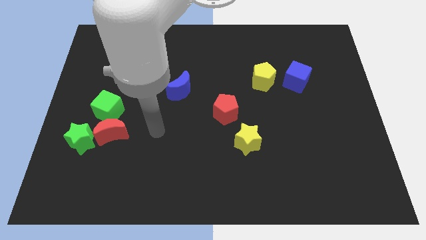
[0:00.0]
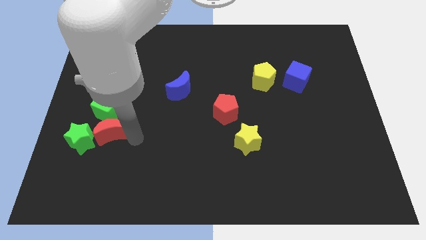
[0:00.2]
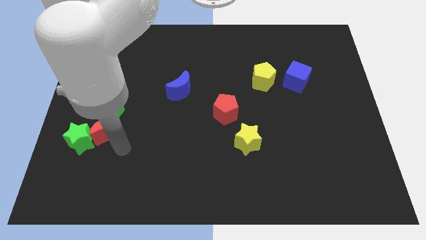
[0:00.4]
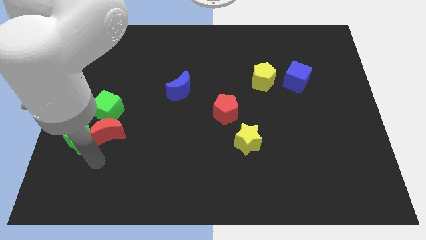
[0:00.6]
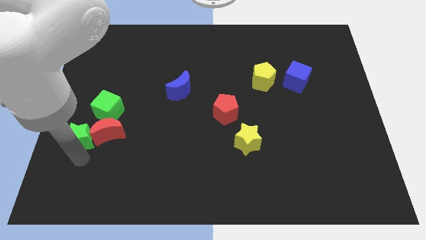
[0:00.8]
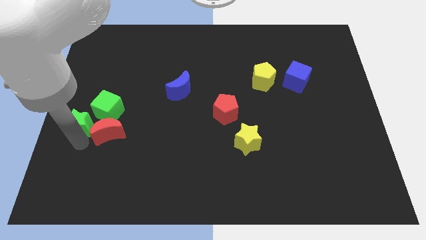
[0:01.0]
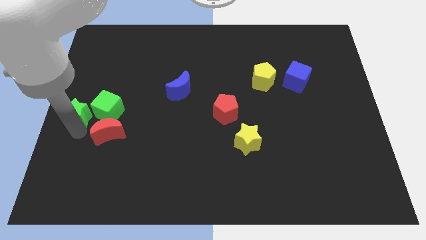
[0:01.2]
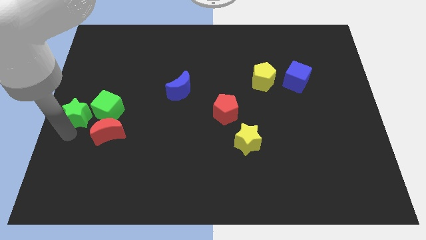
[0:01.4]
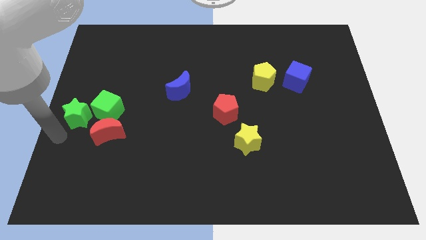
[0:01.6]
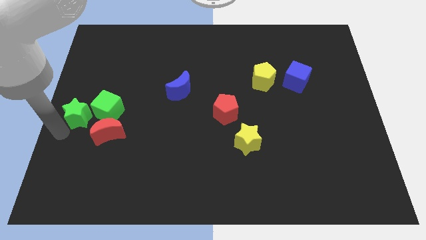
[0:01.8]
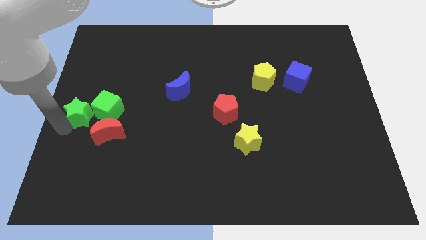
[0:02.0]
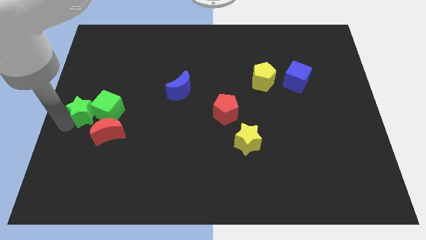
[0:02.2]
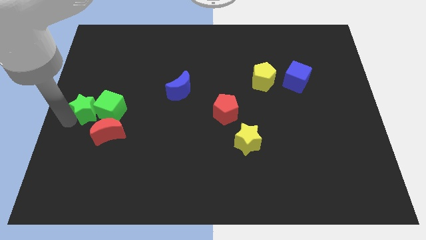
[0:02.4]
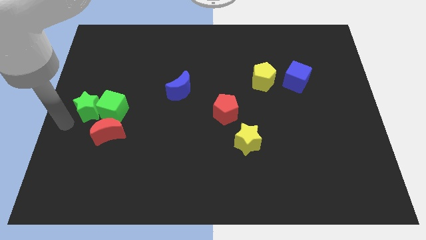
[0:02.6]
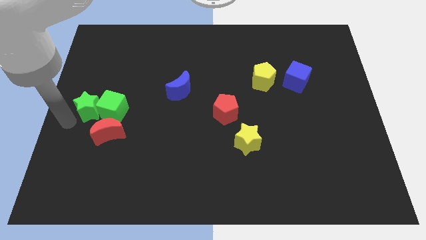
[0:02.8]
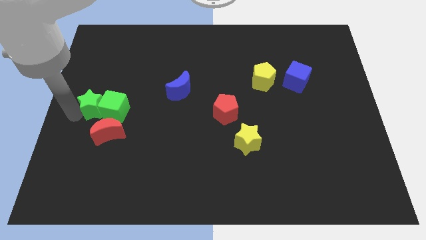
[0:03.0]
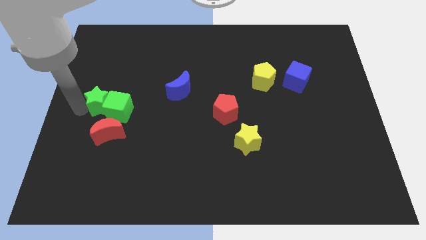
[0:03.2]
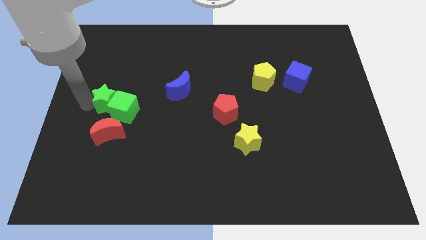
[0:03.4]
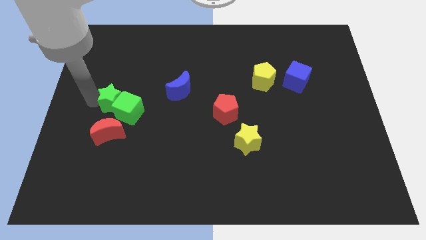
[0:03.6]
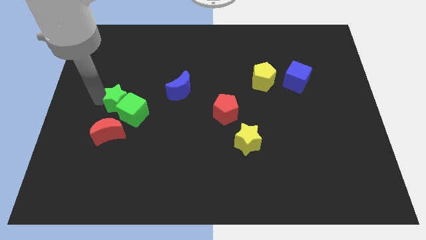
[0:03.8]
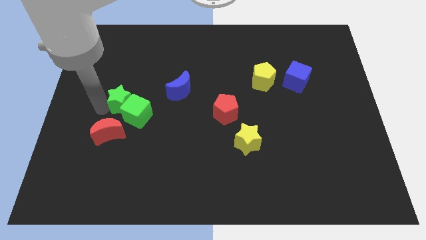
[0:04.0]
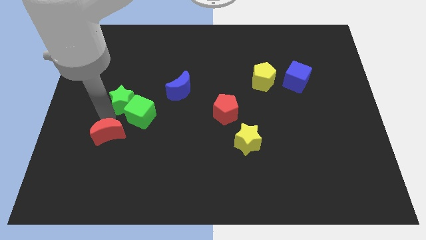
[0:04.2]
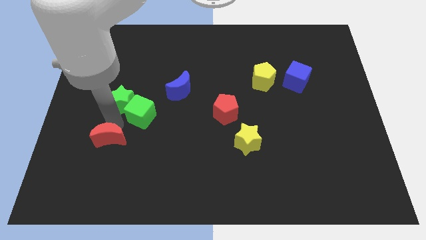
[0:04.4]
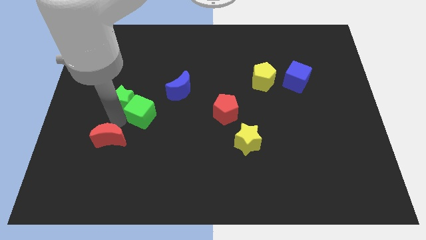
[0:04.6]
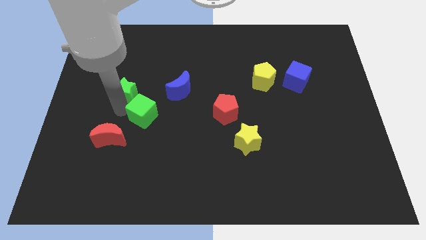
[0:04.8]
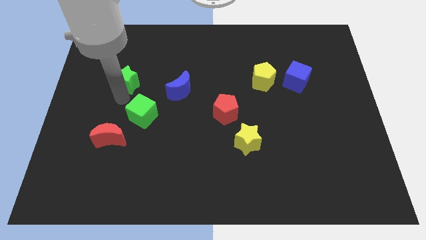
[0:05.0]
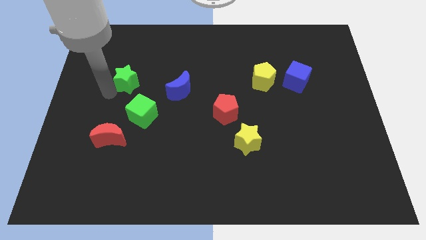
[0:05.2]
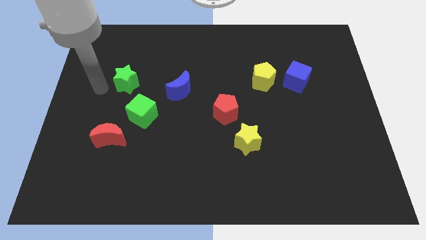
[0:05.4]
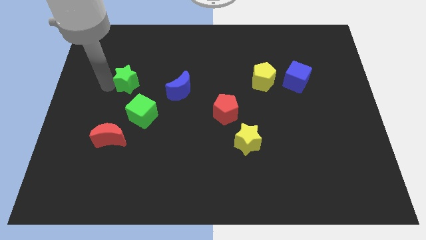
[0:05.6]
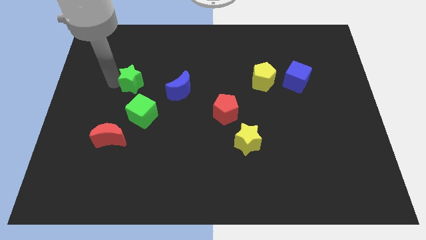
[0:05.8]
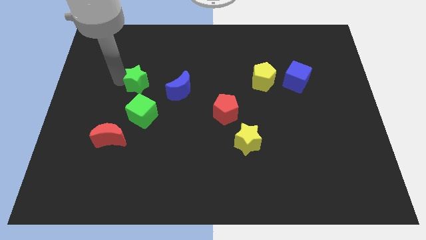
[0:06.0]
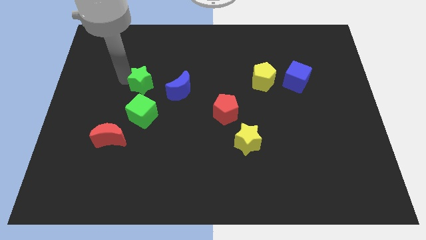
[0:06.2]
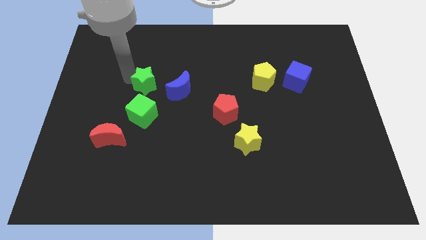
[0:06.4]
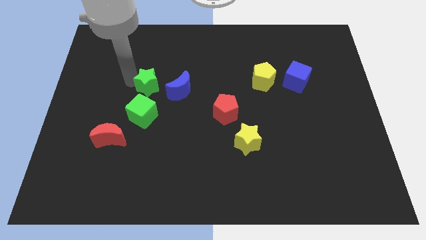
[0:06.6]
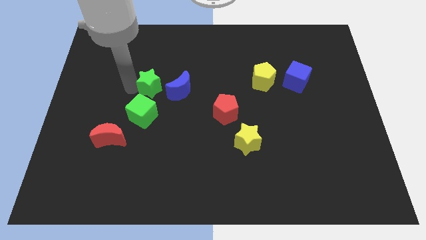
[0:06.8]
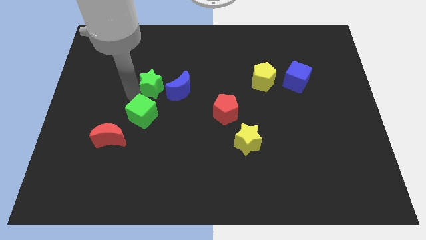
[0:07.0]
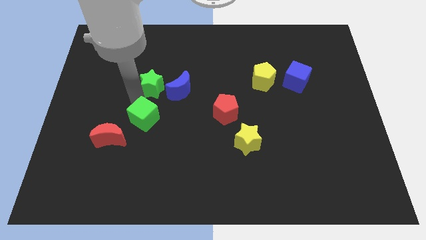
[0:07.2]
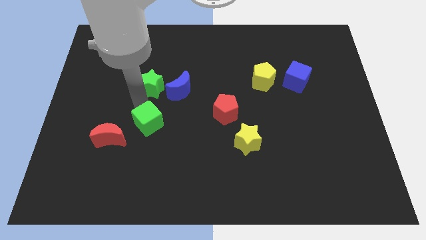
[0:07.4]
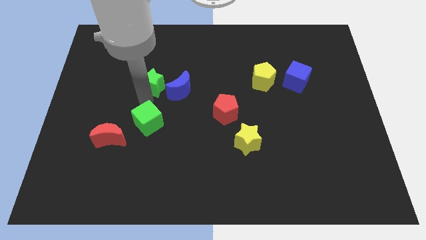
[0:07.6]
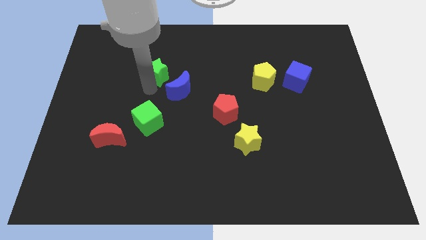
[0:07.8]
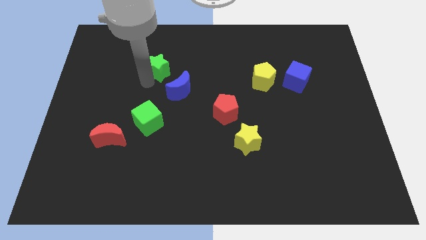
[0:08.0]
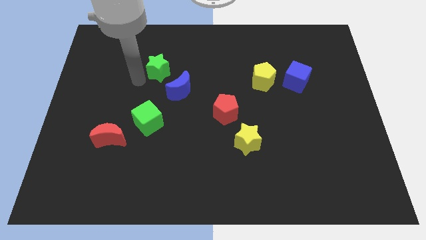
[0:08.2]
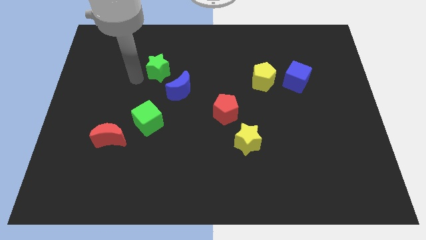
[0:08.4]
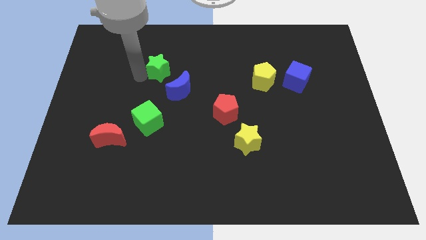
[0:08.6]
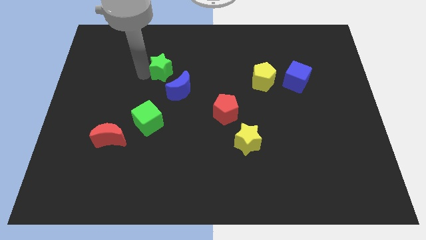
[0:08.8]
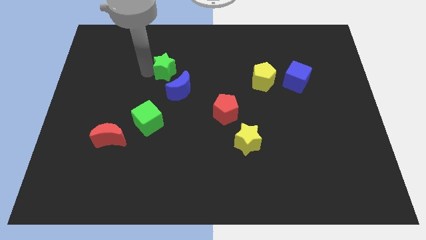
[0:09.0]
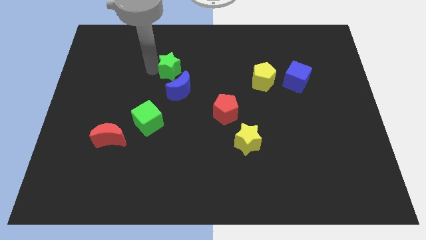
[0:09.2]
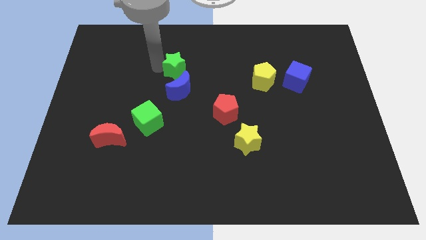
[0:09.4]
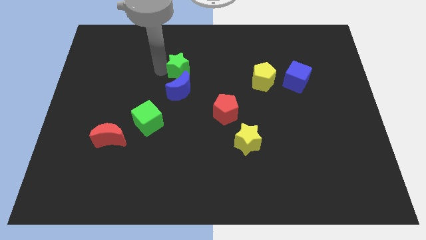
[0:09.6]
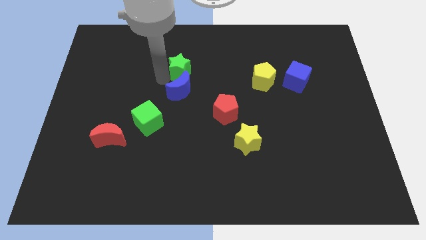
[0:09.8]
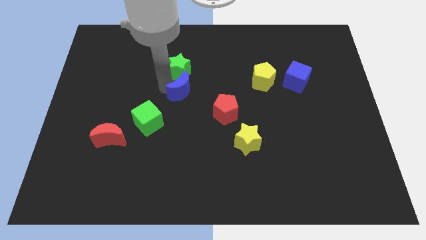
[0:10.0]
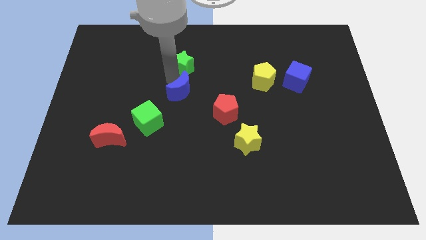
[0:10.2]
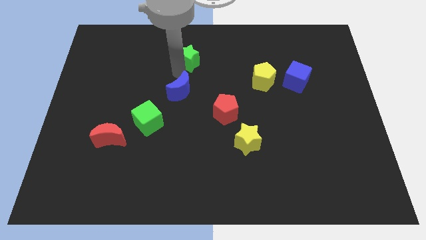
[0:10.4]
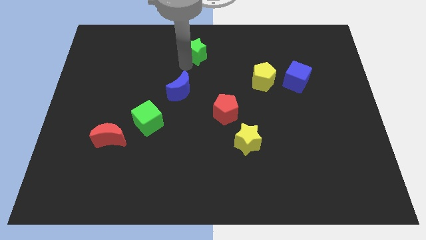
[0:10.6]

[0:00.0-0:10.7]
move the green star to the top side

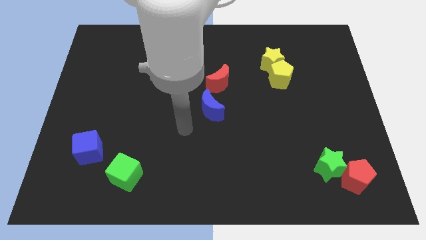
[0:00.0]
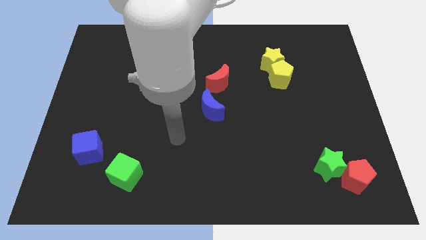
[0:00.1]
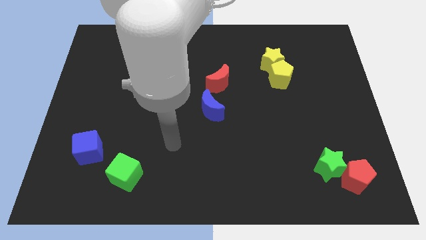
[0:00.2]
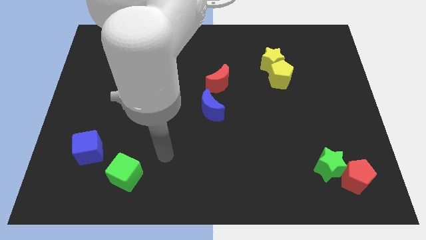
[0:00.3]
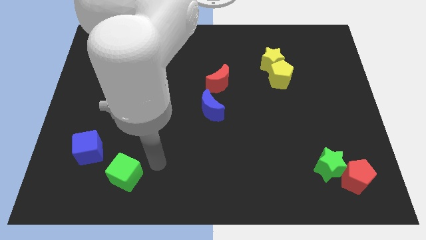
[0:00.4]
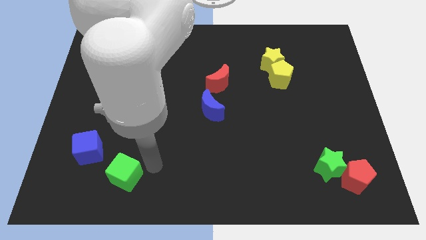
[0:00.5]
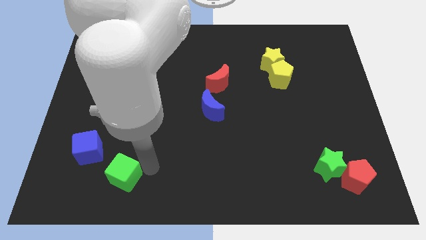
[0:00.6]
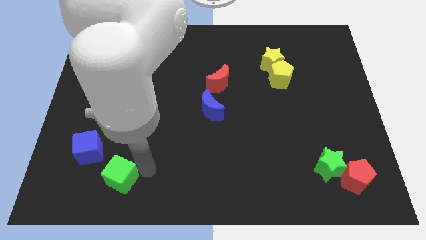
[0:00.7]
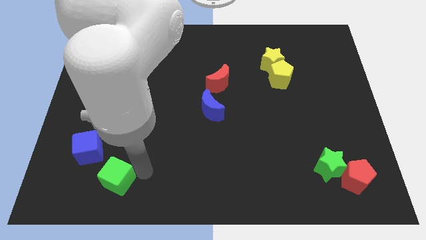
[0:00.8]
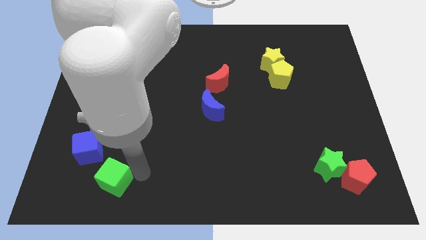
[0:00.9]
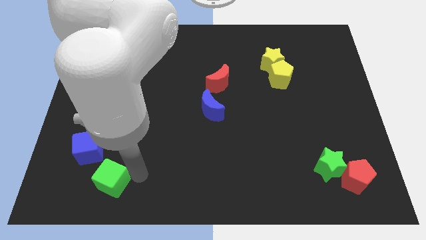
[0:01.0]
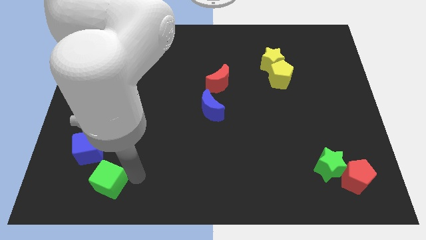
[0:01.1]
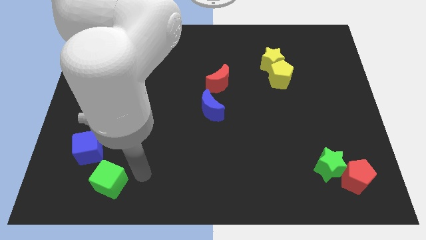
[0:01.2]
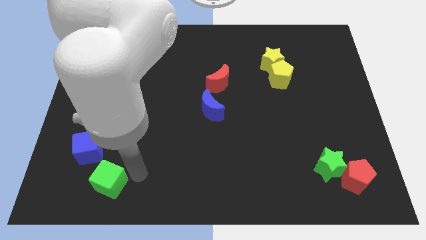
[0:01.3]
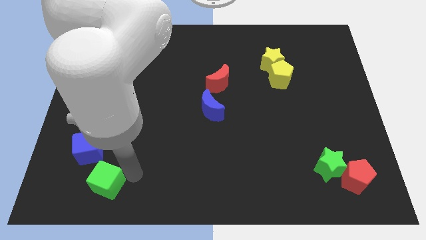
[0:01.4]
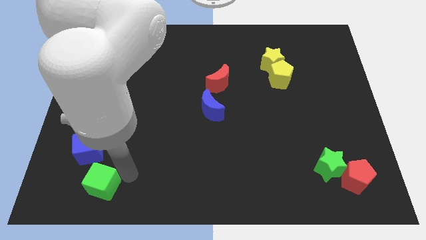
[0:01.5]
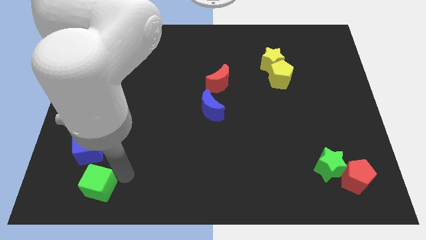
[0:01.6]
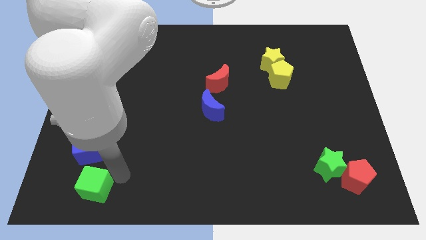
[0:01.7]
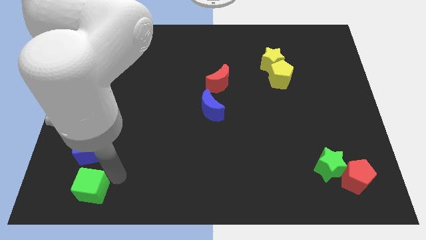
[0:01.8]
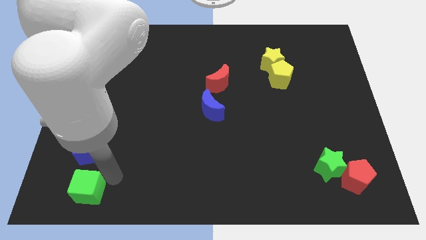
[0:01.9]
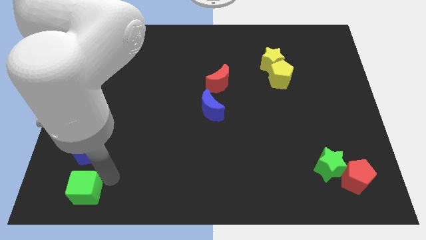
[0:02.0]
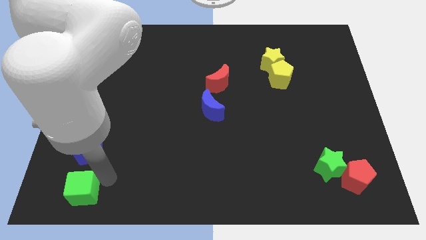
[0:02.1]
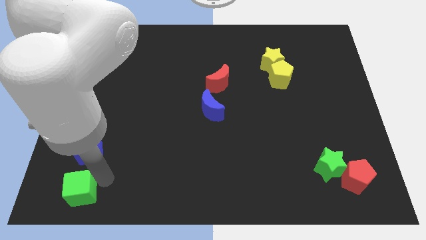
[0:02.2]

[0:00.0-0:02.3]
push the green cube to the lower left corner
